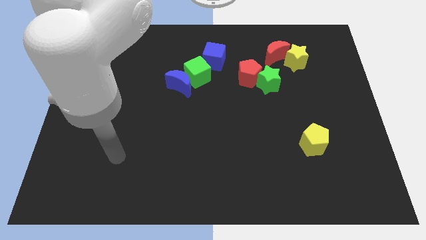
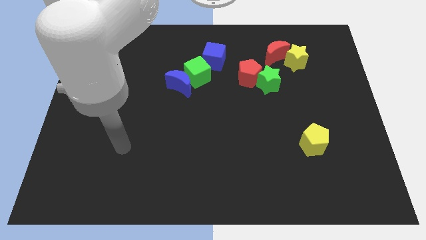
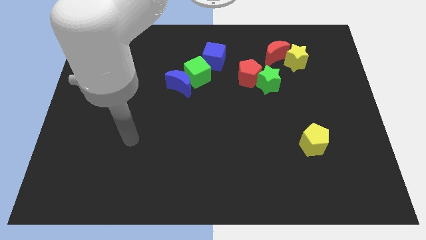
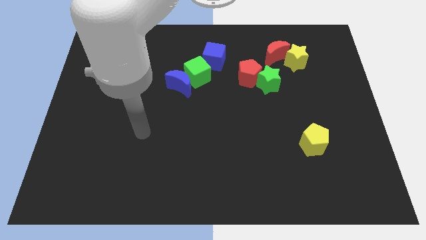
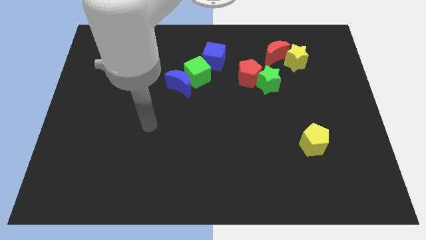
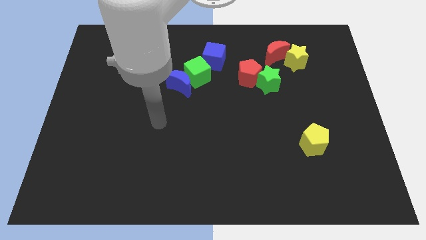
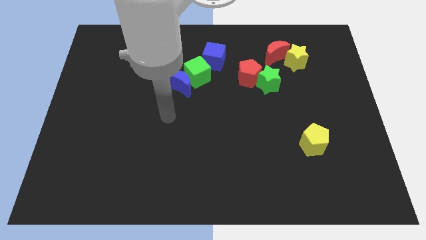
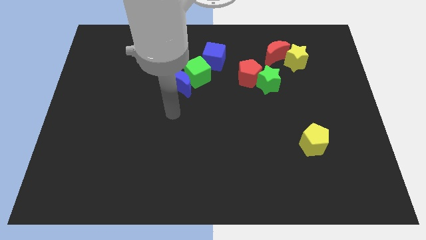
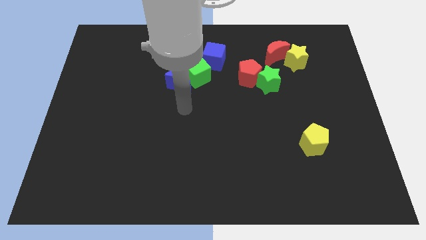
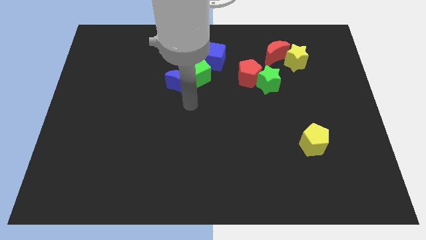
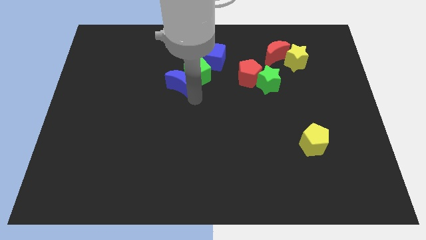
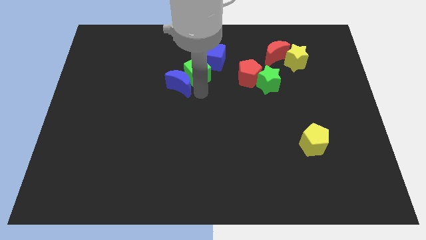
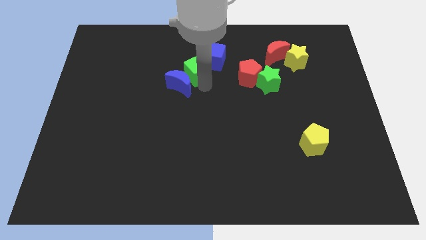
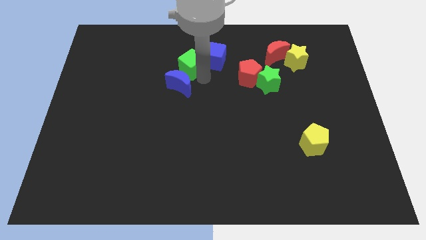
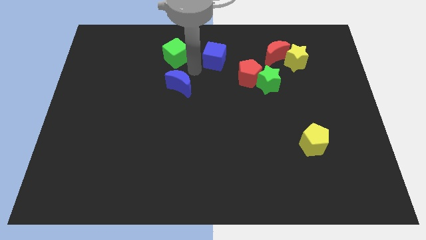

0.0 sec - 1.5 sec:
pull the blue moon apart from the green cube

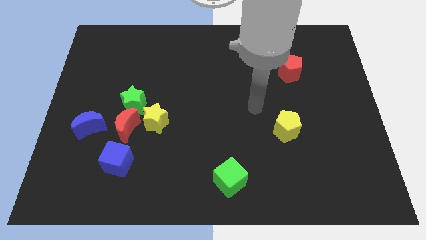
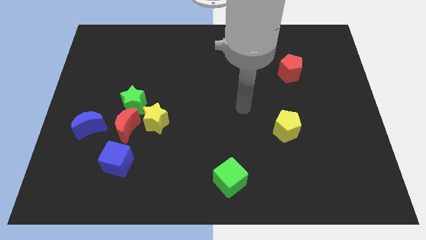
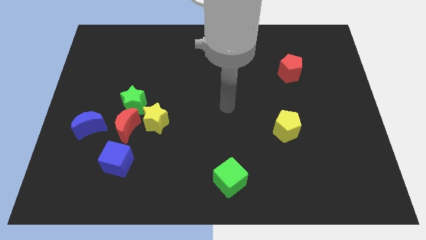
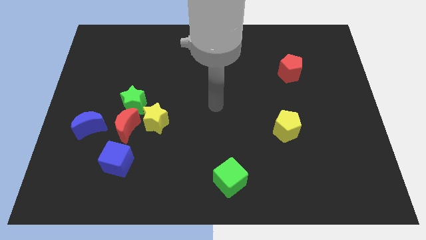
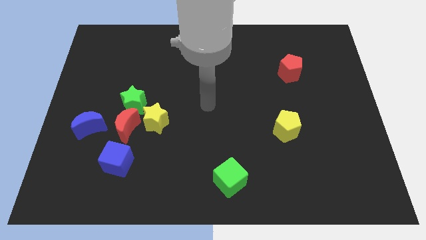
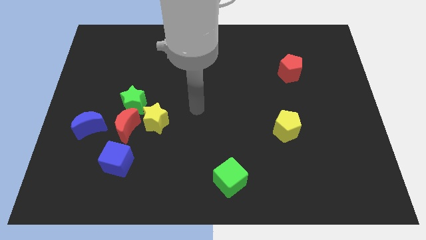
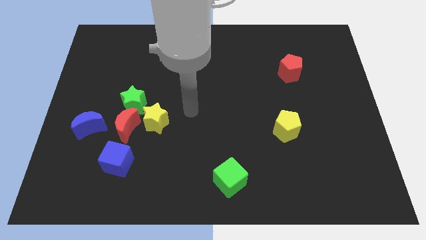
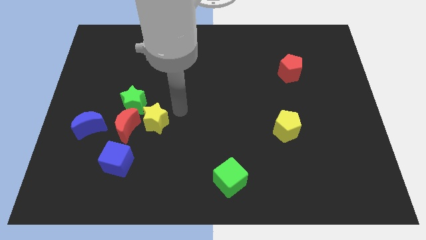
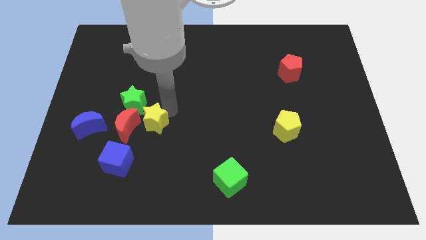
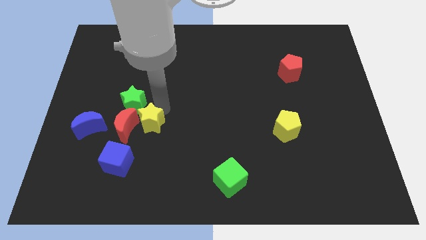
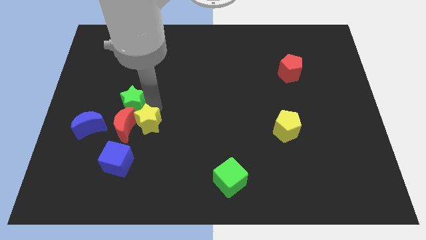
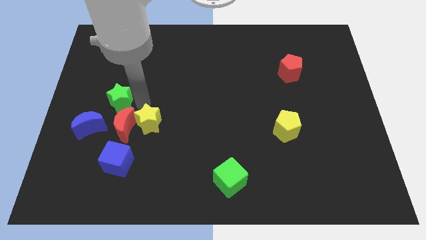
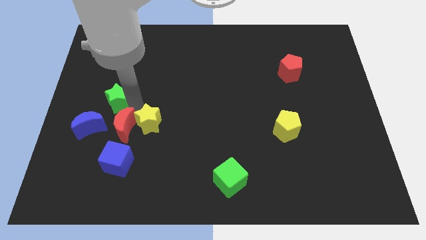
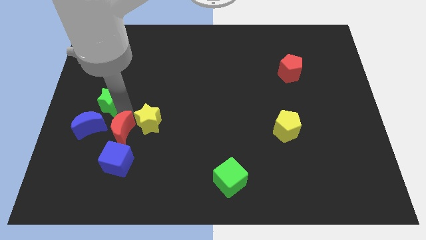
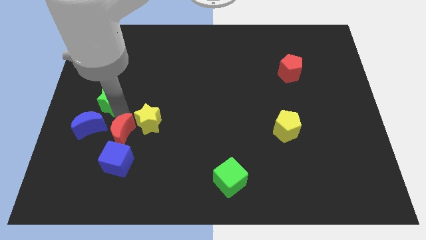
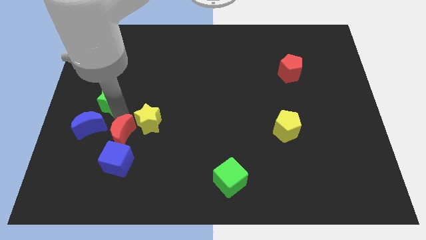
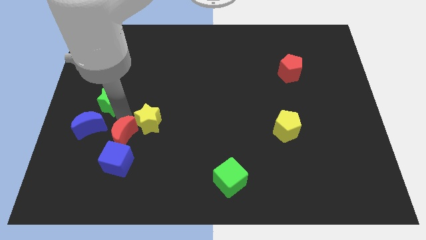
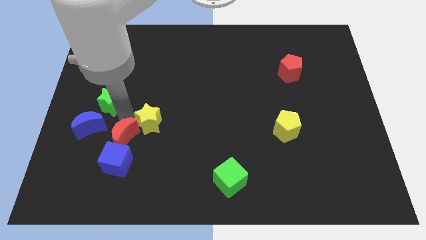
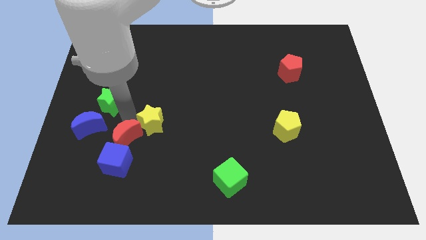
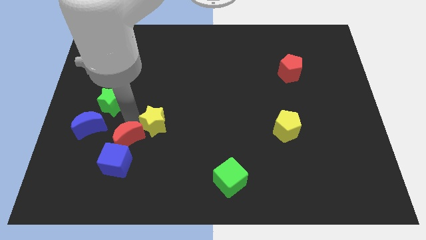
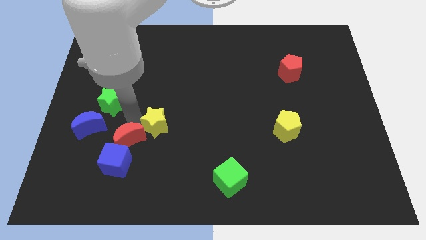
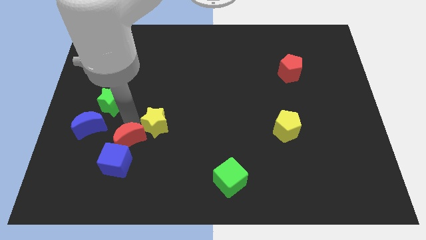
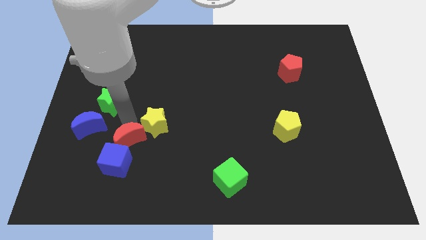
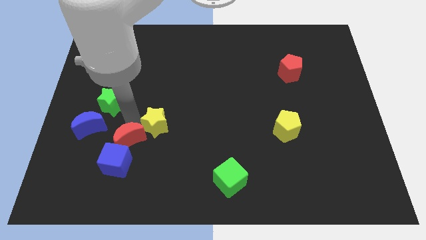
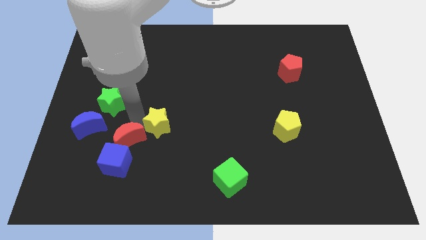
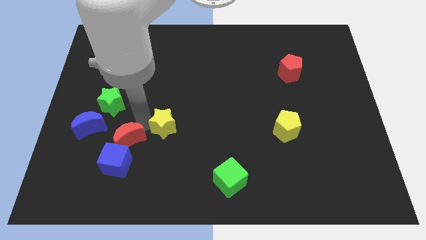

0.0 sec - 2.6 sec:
move the yellow star away from the red moon and green star

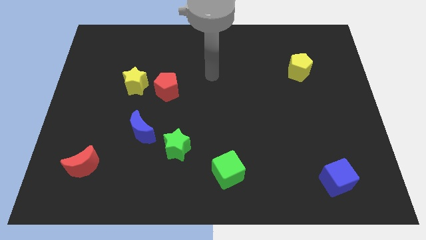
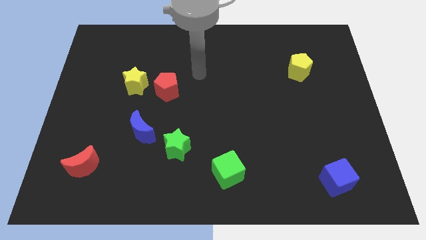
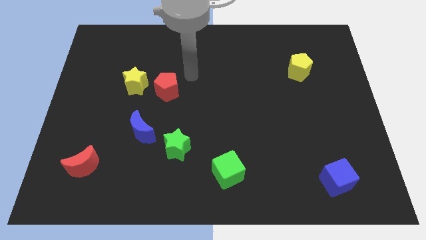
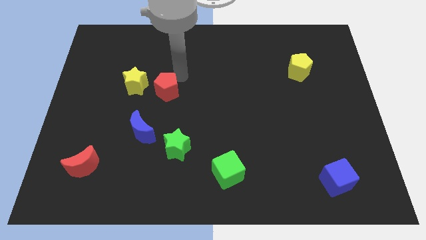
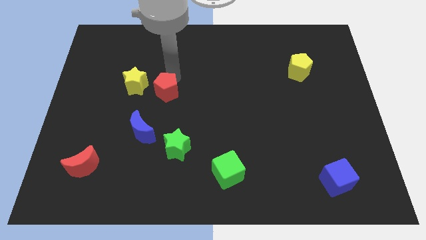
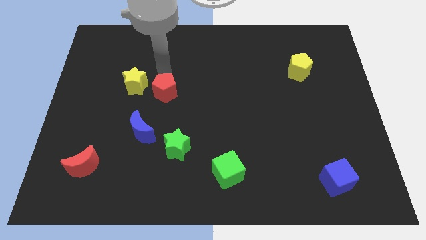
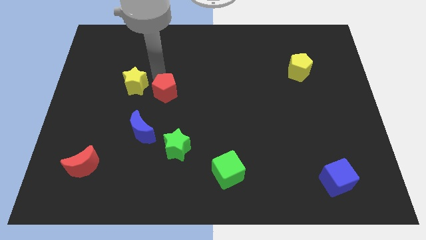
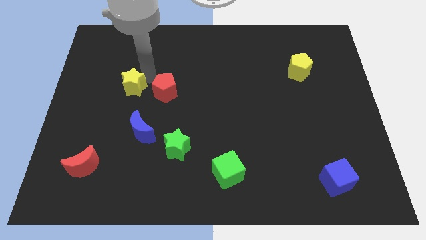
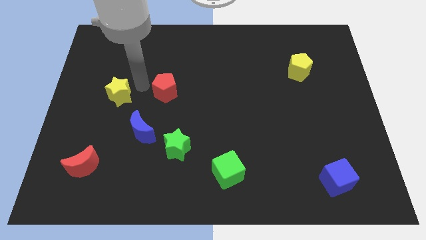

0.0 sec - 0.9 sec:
separate the red pentagon from the yellow star

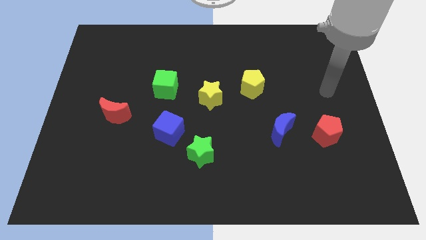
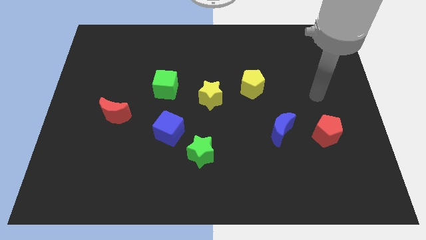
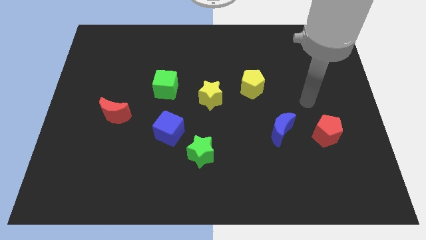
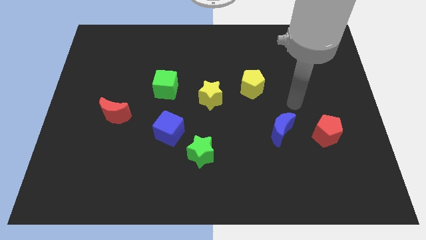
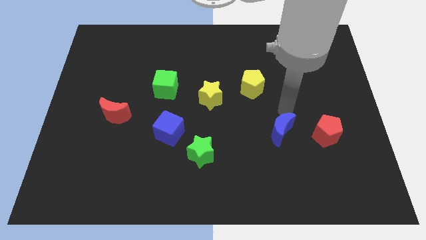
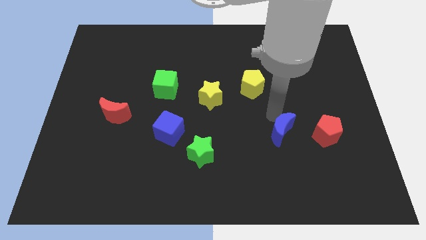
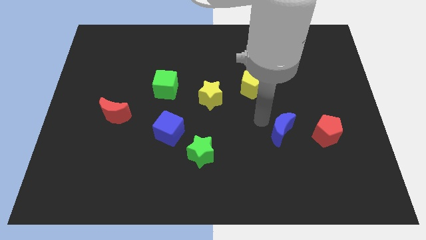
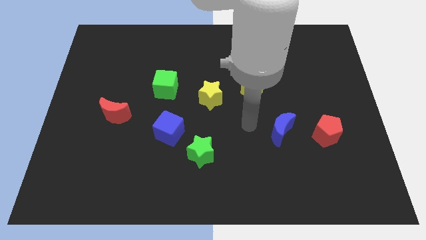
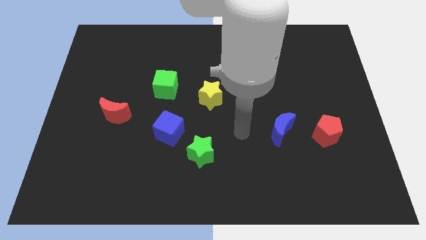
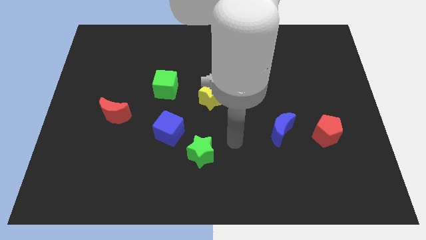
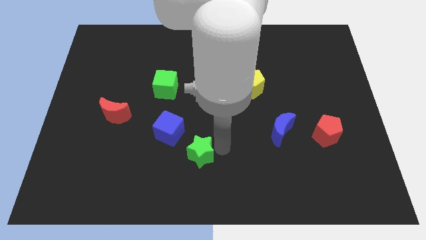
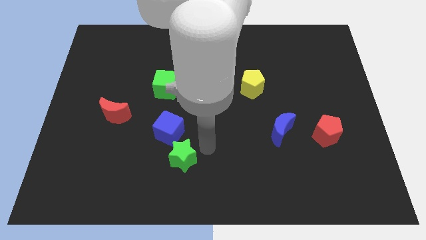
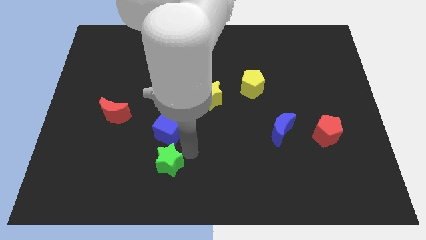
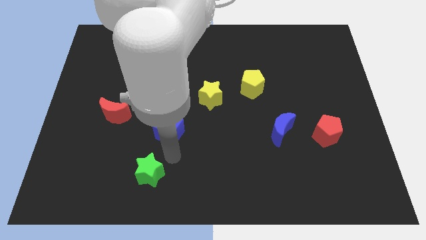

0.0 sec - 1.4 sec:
pull the blue cube apart from the green star

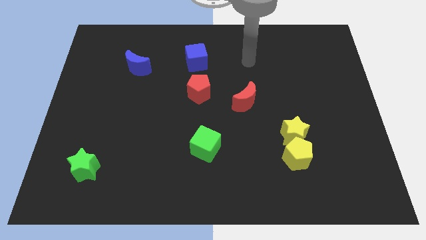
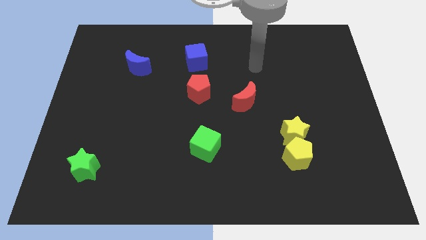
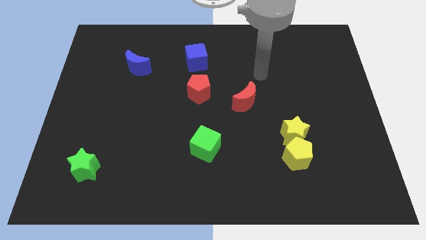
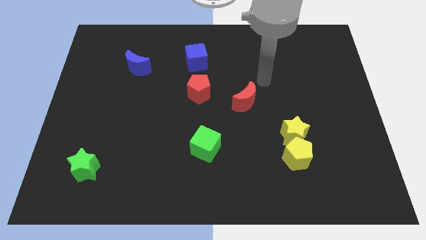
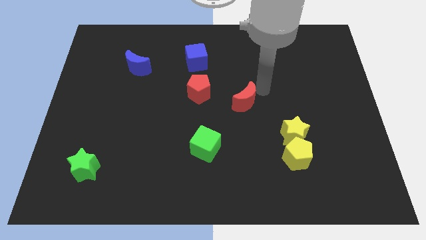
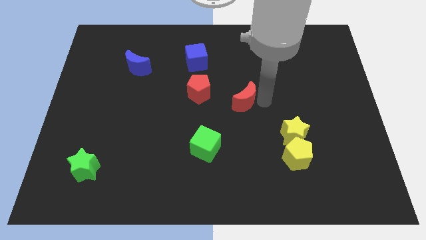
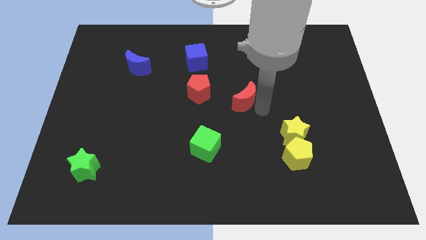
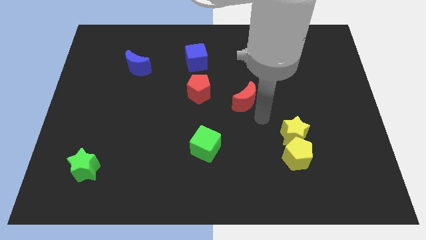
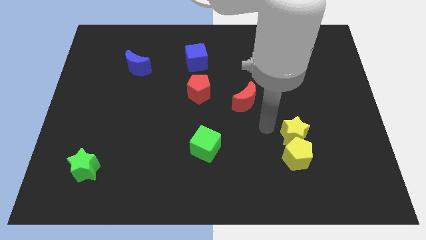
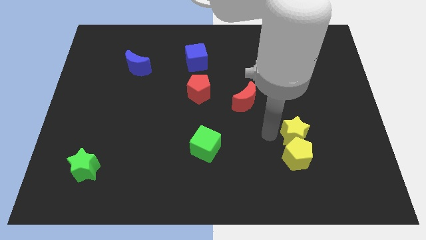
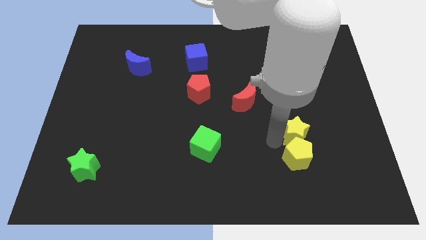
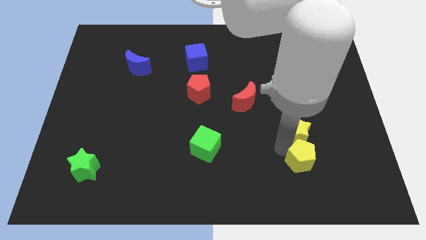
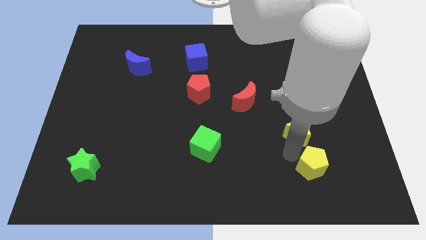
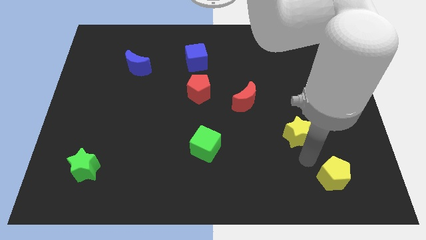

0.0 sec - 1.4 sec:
separate the yellow star from the yellow pentagon

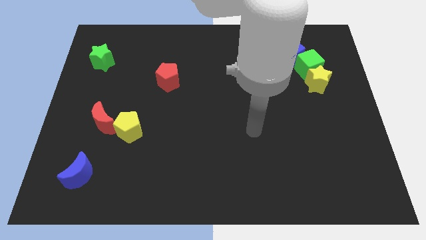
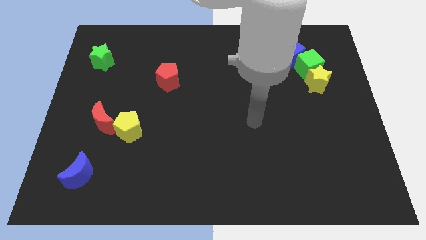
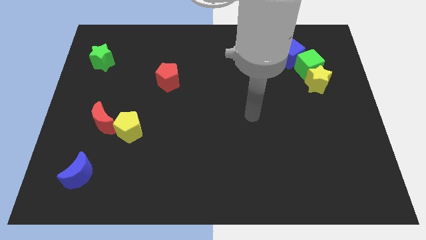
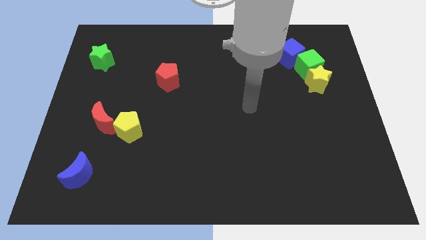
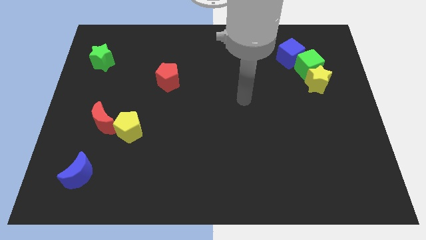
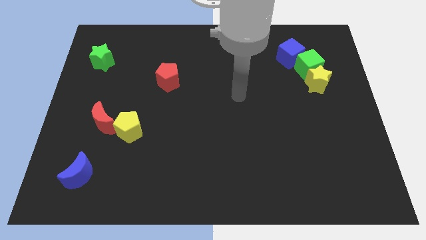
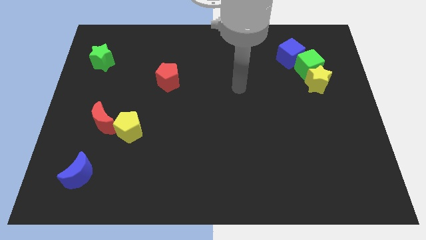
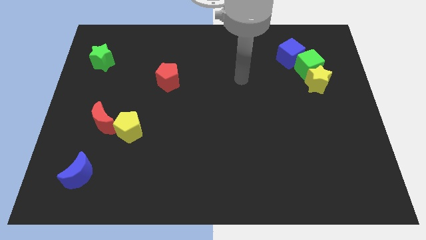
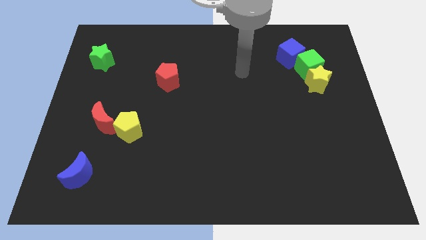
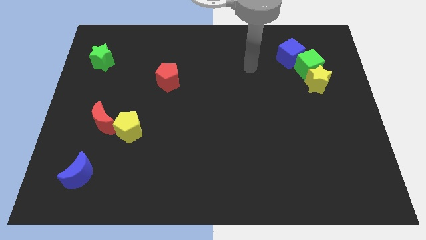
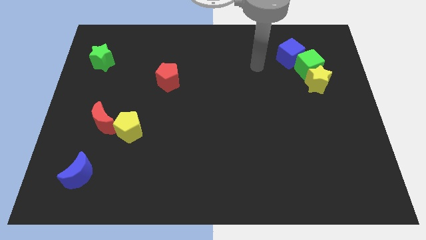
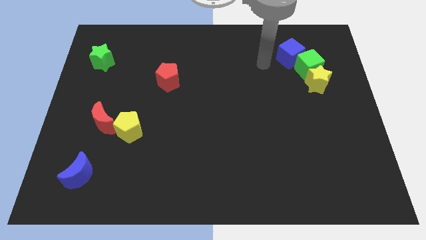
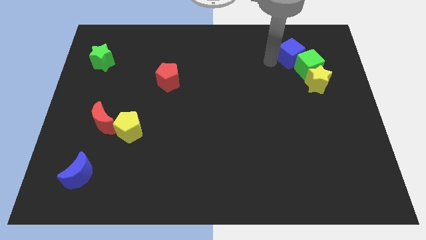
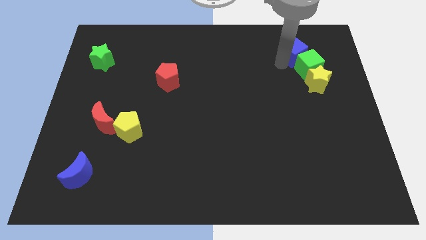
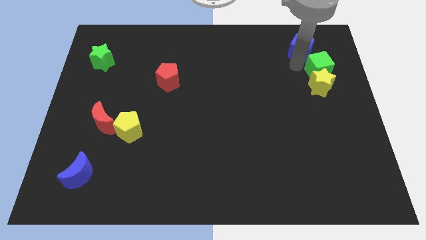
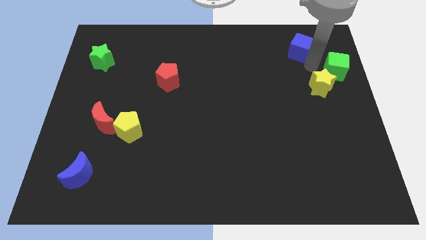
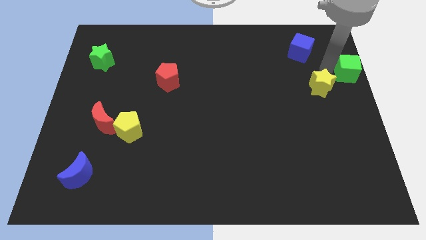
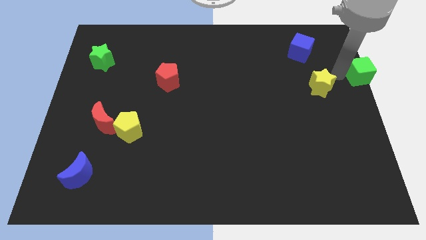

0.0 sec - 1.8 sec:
pull the yellow star apart from the green cube
